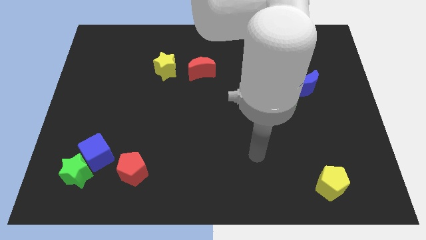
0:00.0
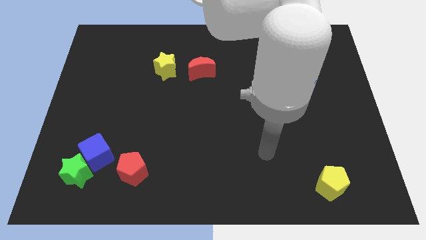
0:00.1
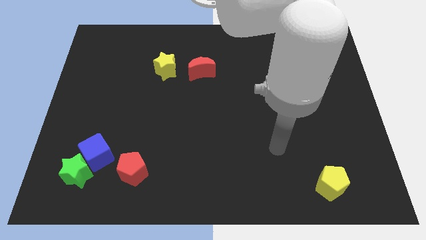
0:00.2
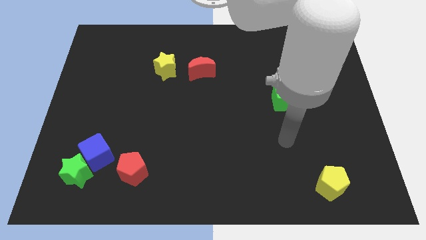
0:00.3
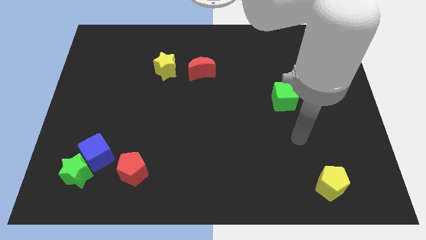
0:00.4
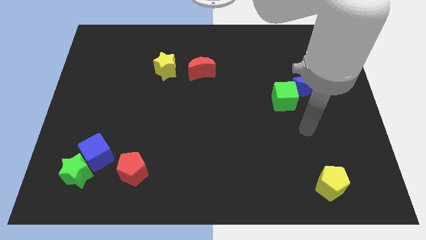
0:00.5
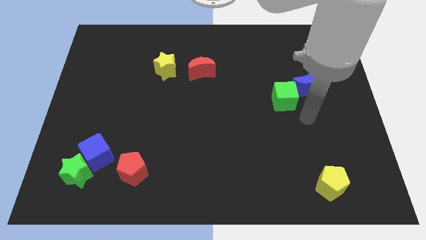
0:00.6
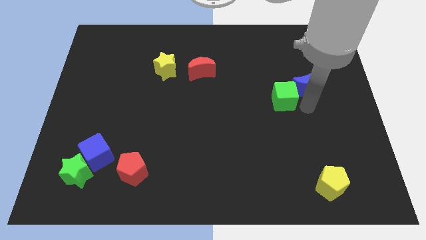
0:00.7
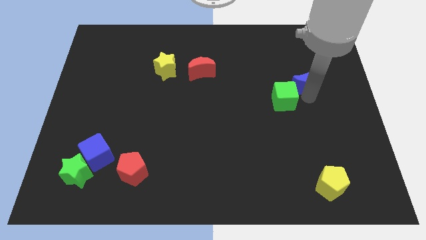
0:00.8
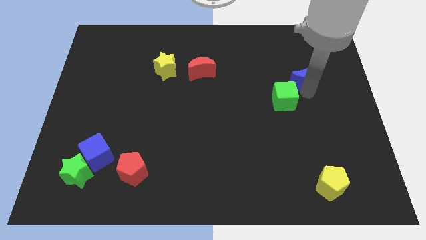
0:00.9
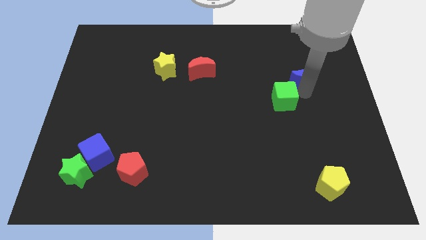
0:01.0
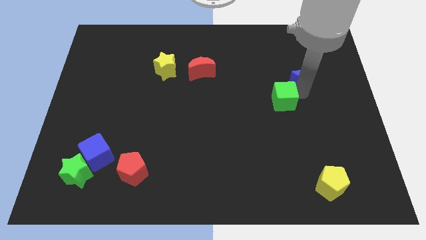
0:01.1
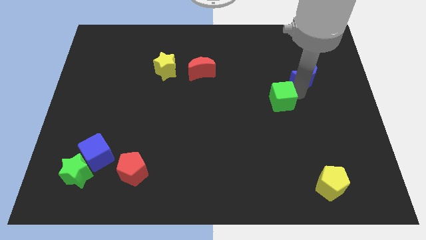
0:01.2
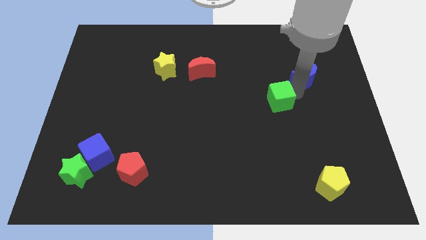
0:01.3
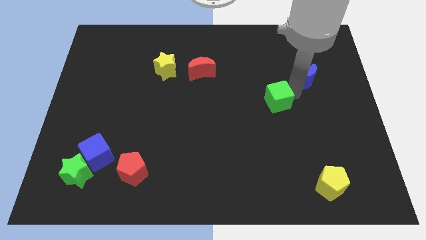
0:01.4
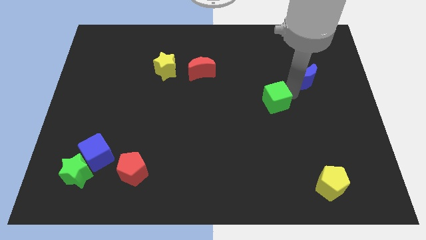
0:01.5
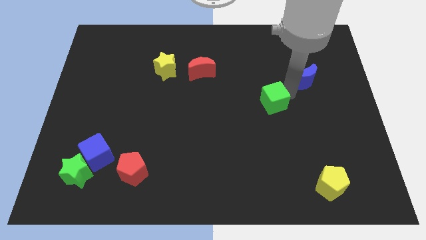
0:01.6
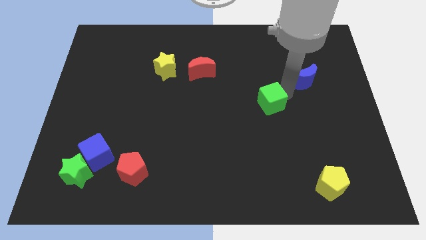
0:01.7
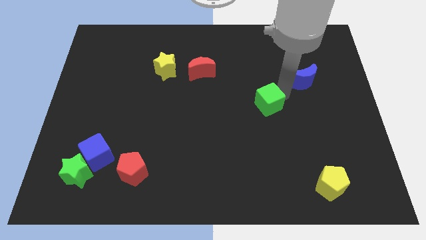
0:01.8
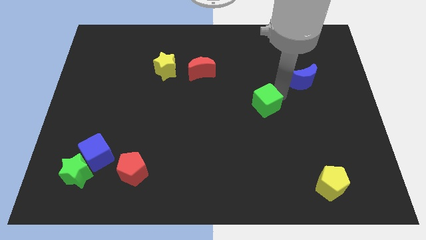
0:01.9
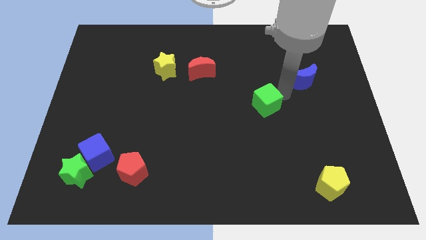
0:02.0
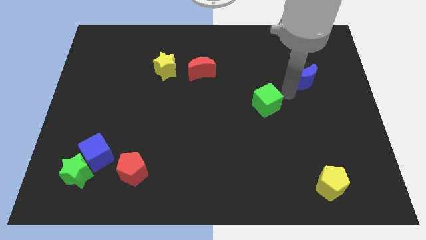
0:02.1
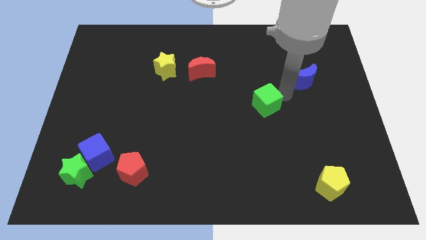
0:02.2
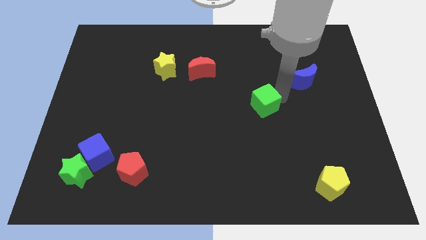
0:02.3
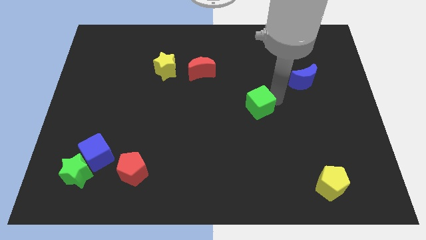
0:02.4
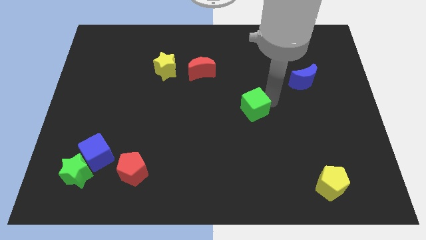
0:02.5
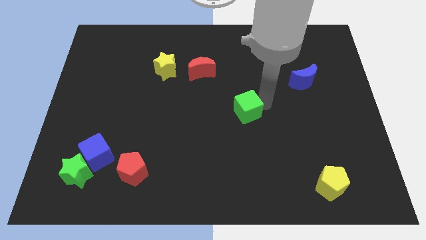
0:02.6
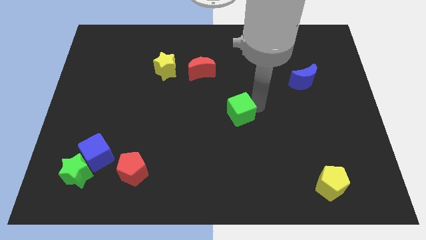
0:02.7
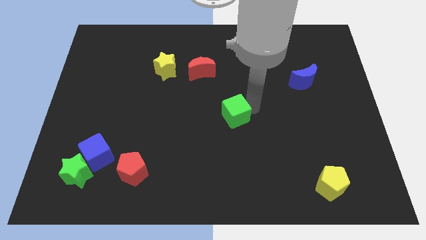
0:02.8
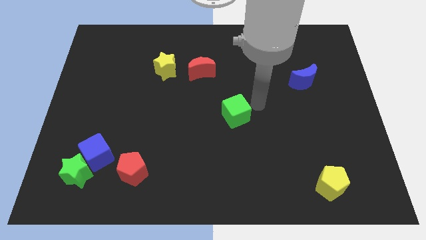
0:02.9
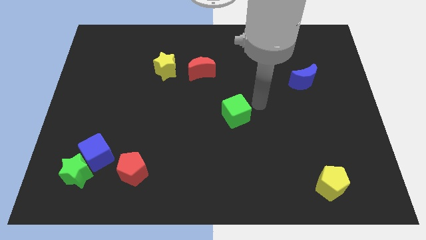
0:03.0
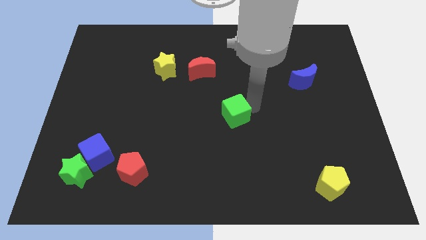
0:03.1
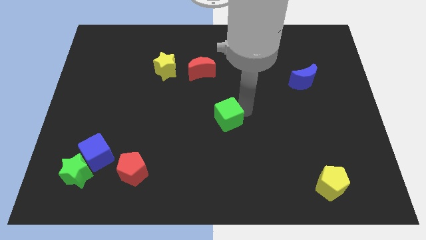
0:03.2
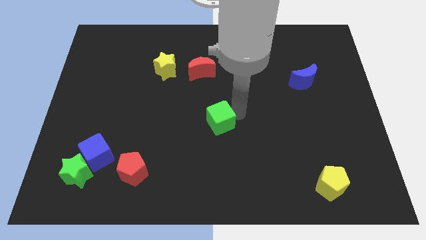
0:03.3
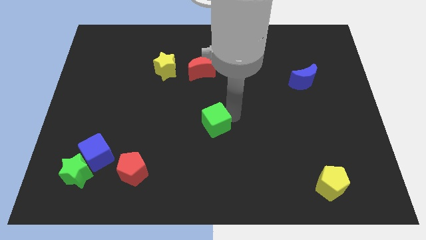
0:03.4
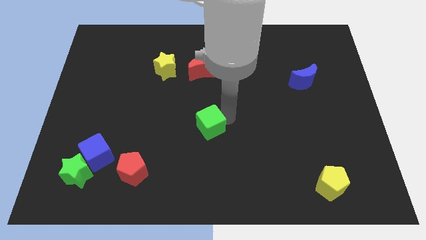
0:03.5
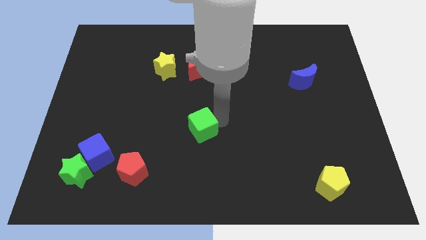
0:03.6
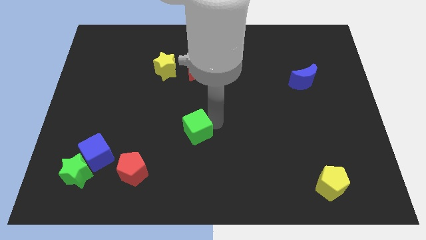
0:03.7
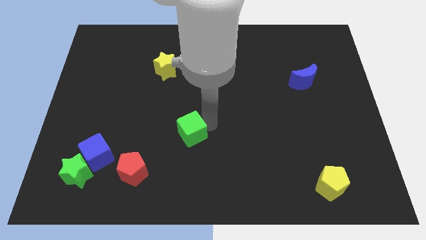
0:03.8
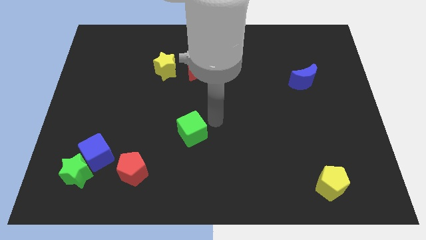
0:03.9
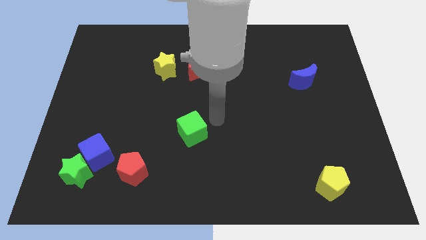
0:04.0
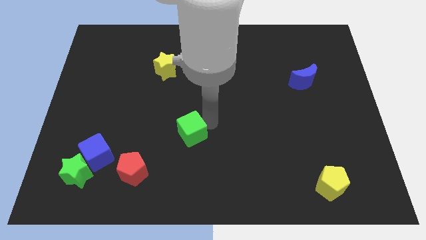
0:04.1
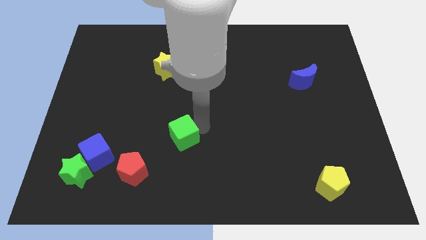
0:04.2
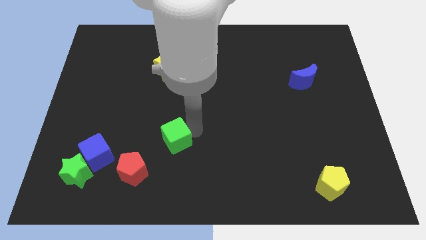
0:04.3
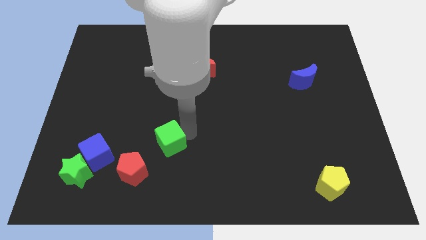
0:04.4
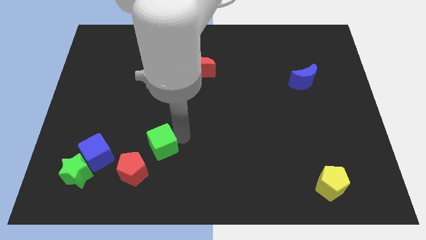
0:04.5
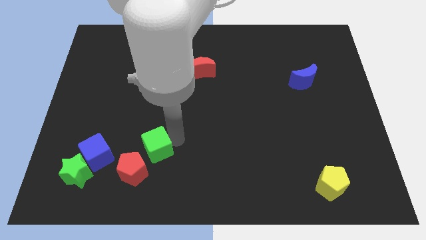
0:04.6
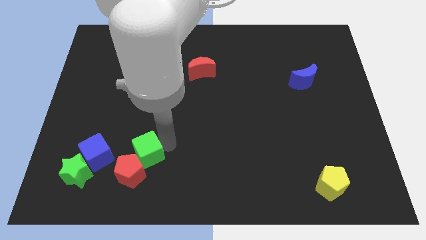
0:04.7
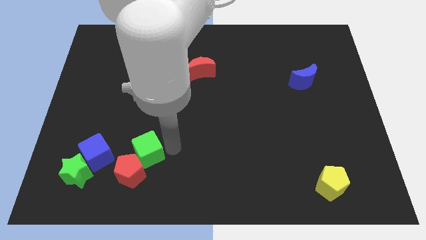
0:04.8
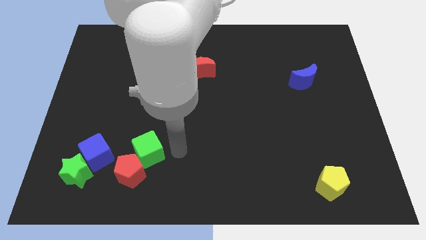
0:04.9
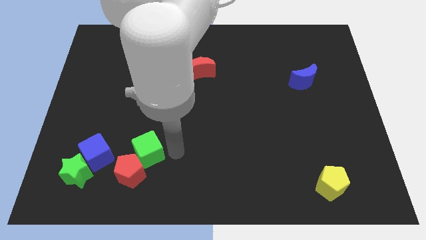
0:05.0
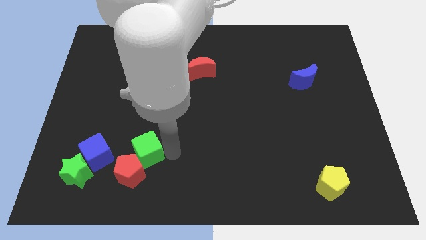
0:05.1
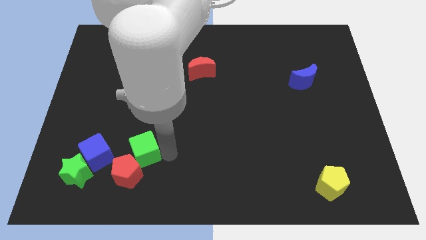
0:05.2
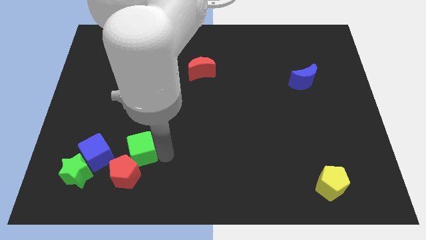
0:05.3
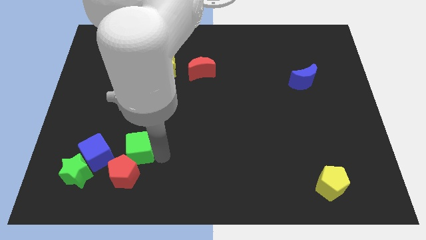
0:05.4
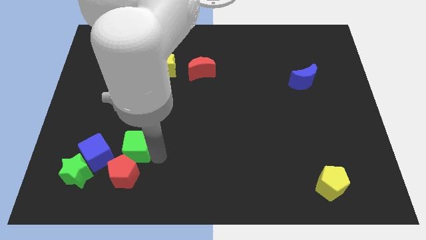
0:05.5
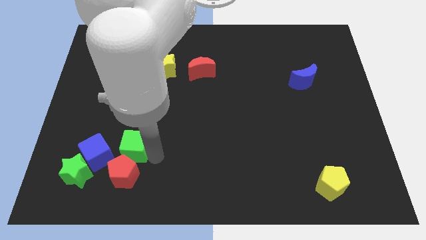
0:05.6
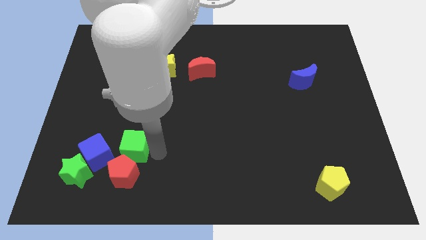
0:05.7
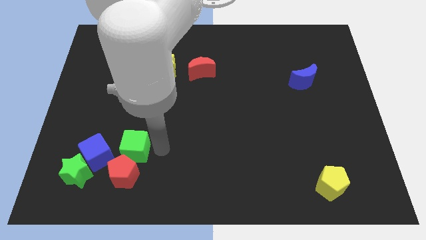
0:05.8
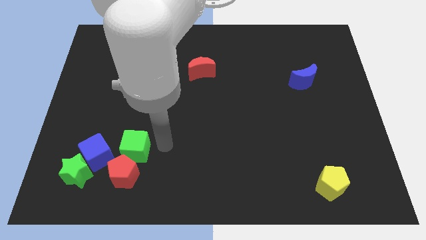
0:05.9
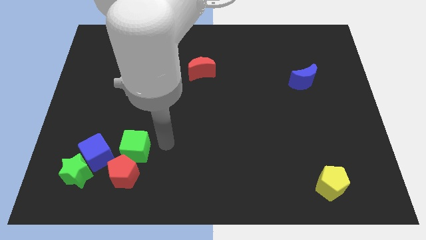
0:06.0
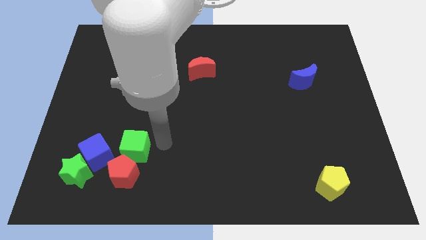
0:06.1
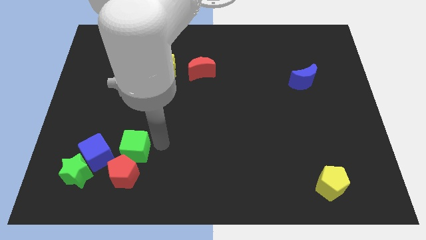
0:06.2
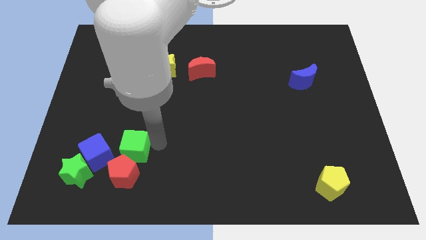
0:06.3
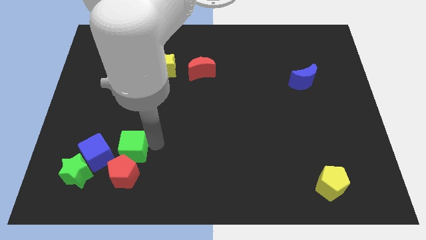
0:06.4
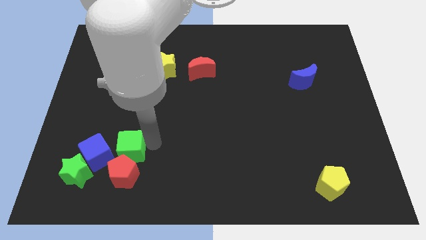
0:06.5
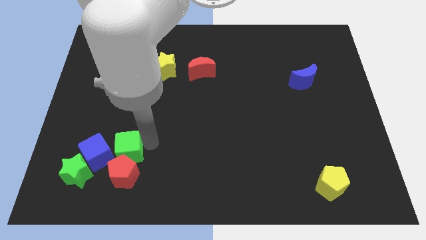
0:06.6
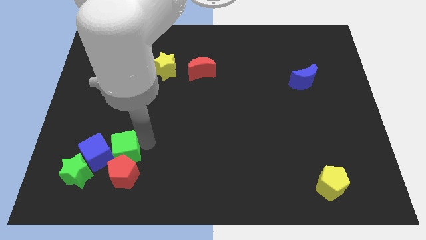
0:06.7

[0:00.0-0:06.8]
move the green cube towards the blue cube

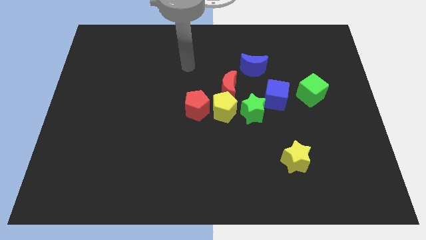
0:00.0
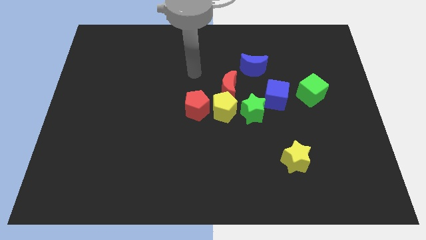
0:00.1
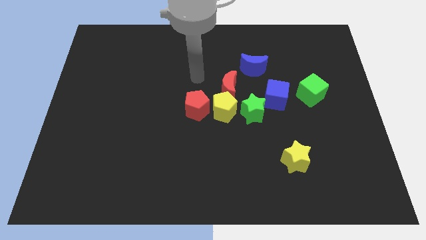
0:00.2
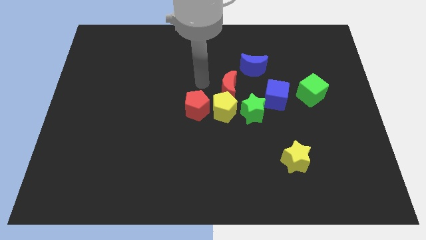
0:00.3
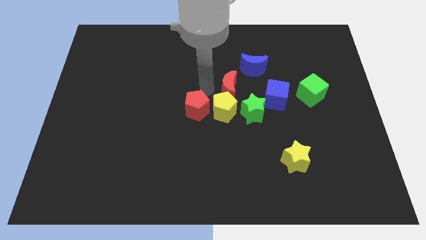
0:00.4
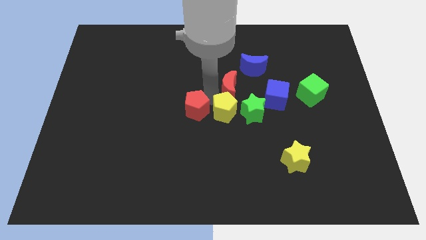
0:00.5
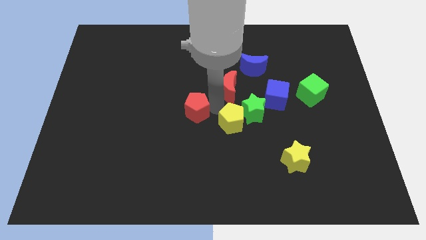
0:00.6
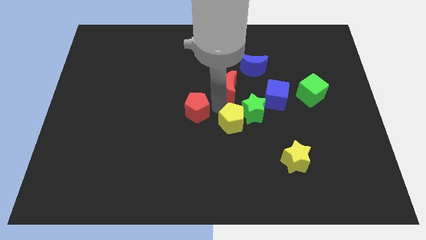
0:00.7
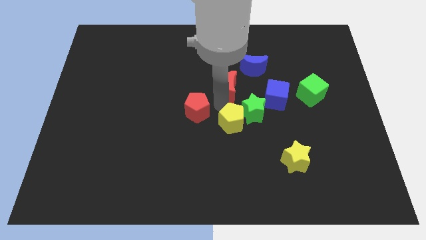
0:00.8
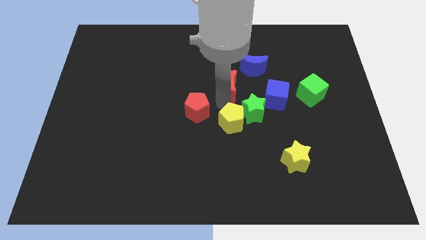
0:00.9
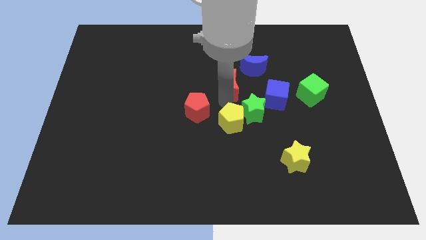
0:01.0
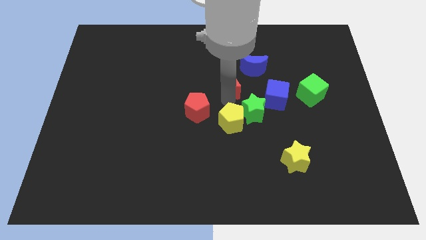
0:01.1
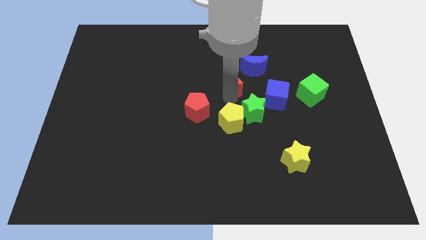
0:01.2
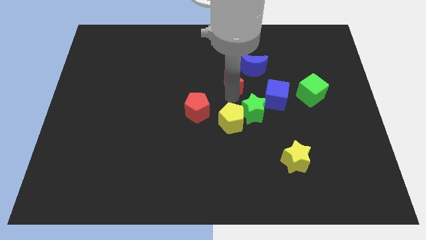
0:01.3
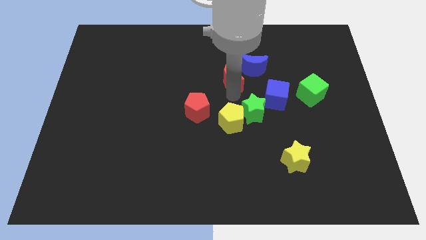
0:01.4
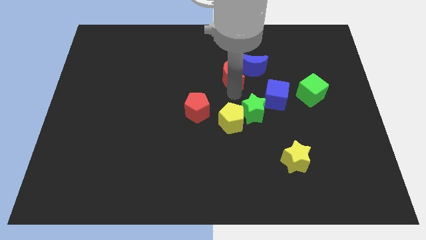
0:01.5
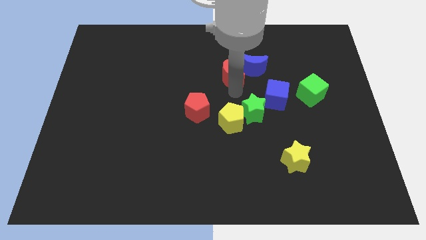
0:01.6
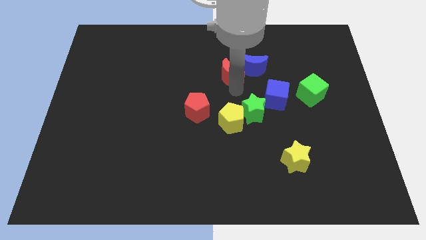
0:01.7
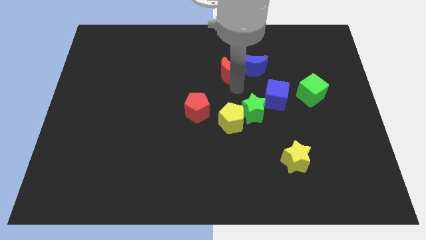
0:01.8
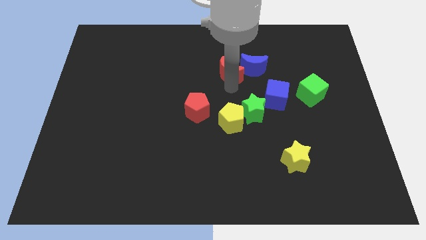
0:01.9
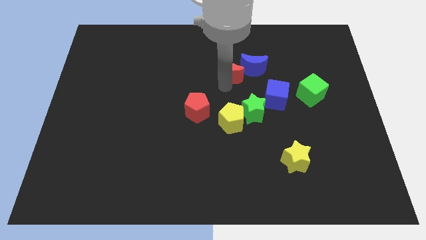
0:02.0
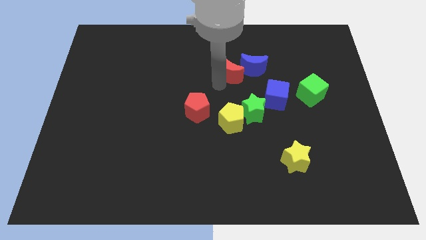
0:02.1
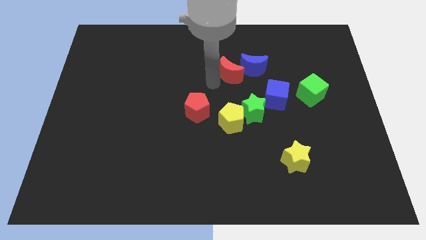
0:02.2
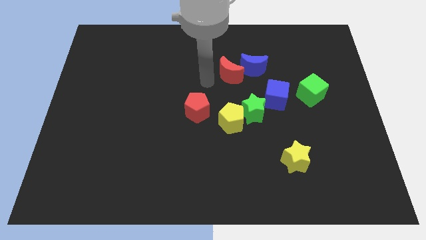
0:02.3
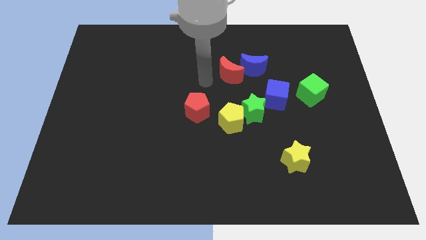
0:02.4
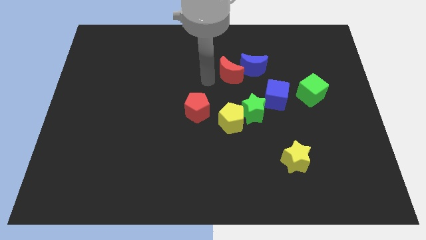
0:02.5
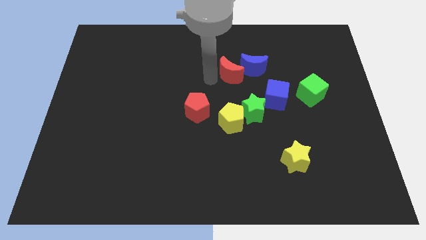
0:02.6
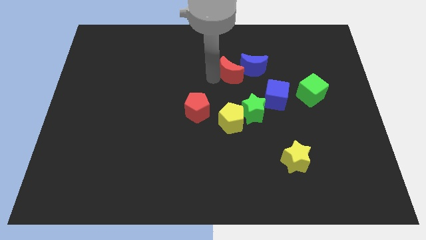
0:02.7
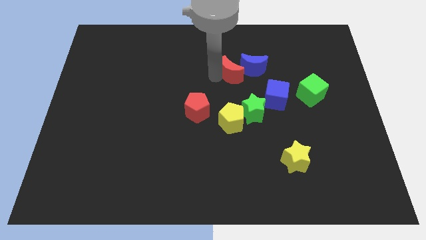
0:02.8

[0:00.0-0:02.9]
move the red moon next to the blue moon
